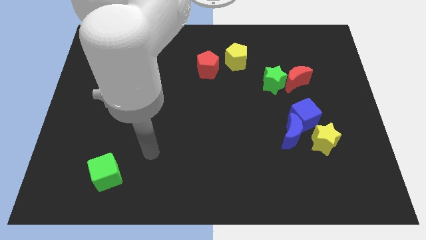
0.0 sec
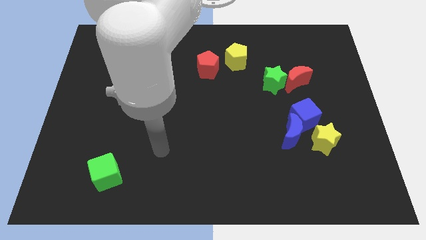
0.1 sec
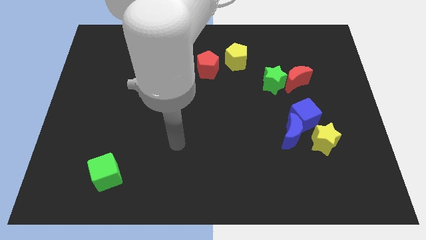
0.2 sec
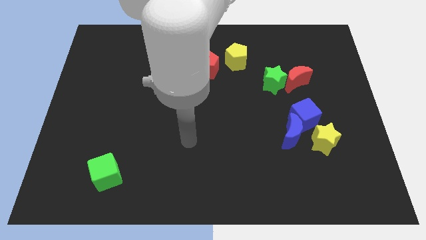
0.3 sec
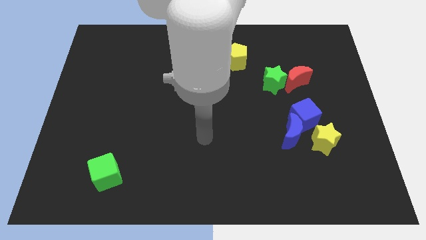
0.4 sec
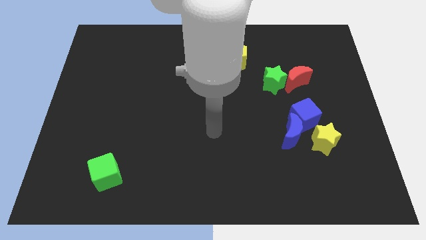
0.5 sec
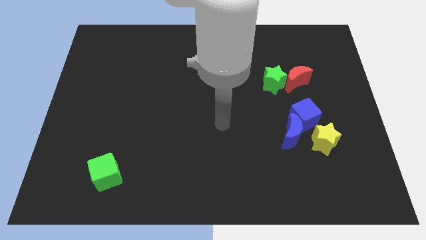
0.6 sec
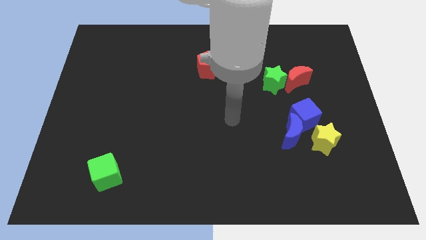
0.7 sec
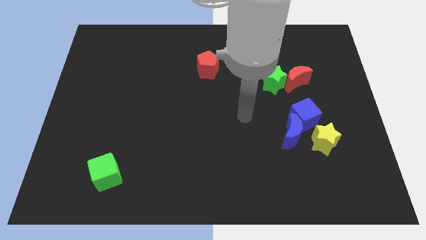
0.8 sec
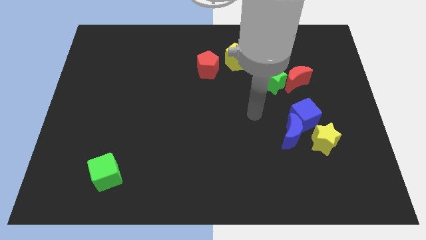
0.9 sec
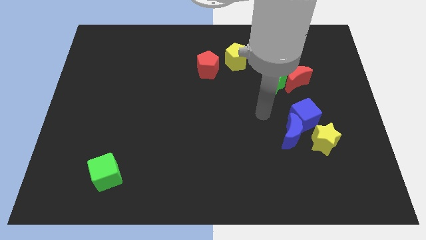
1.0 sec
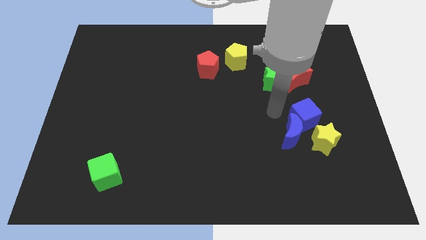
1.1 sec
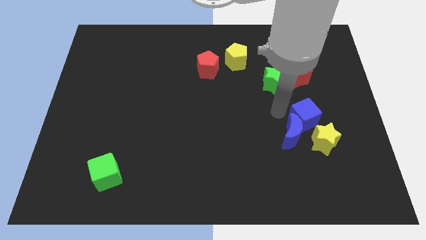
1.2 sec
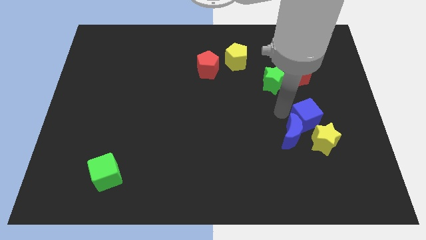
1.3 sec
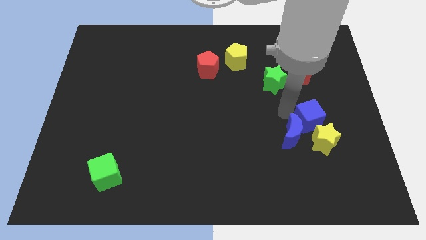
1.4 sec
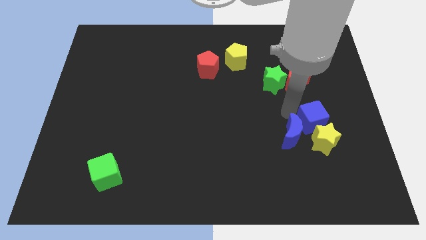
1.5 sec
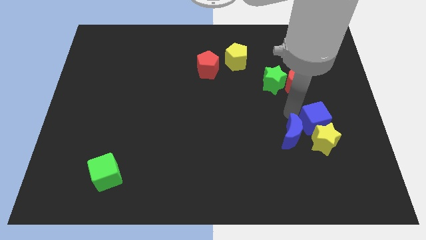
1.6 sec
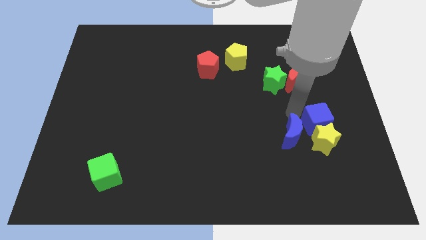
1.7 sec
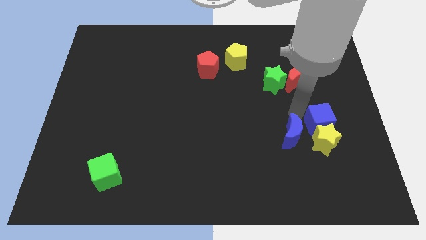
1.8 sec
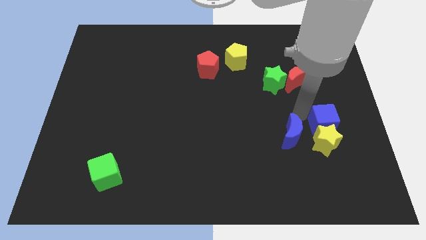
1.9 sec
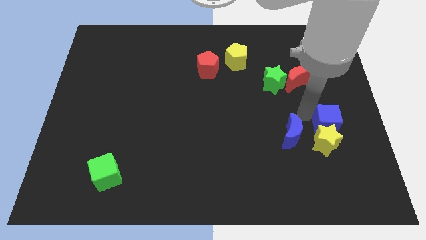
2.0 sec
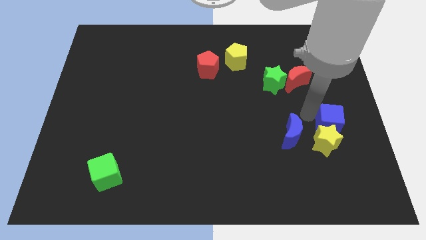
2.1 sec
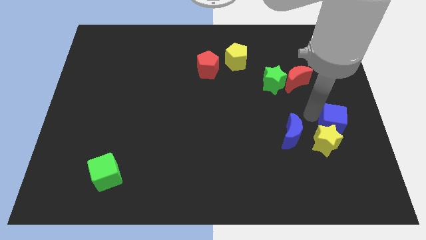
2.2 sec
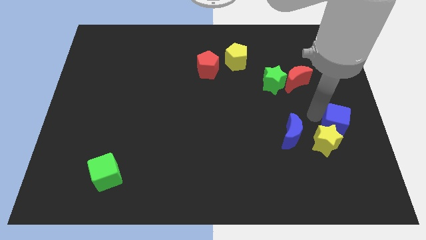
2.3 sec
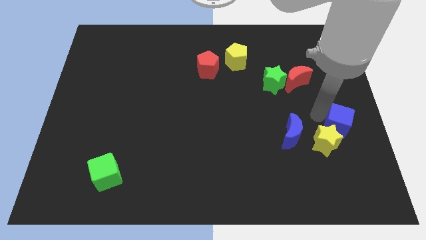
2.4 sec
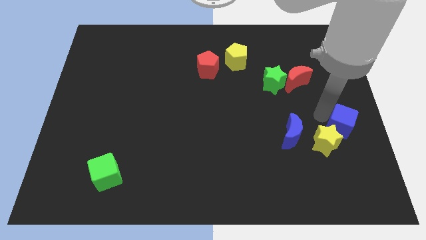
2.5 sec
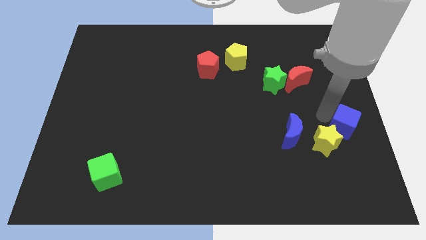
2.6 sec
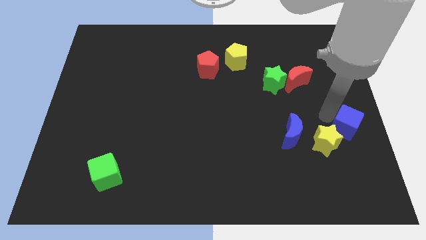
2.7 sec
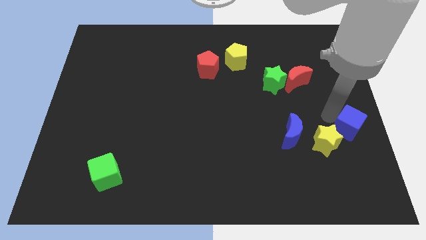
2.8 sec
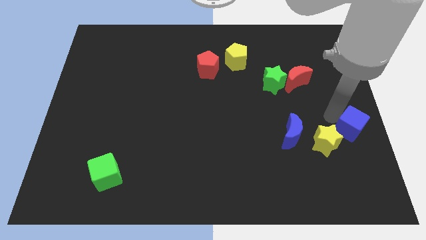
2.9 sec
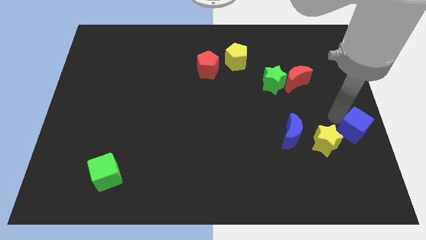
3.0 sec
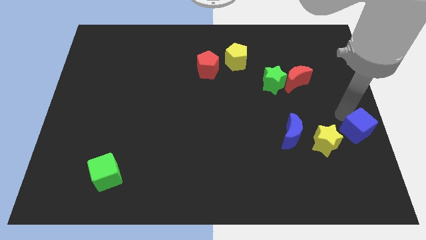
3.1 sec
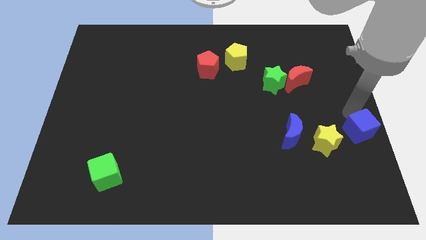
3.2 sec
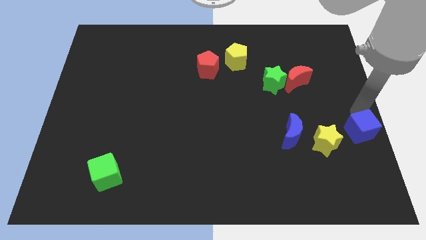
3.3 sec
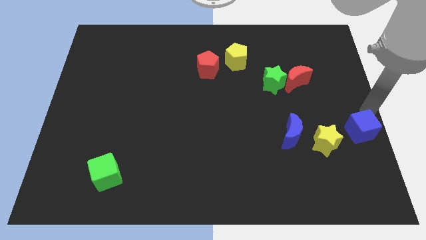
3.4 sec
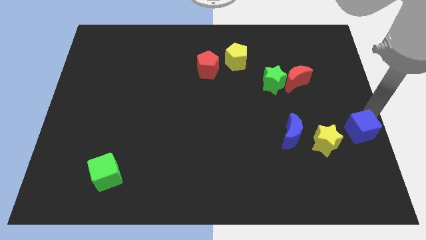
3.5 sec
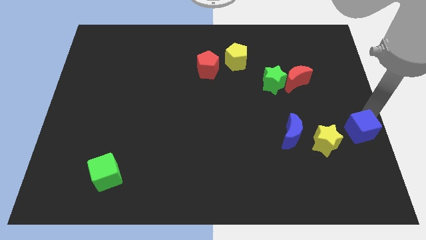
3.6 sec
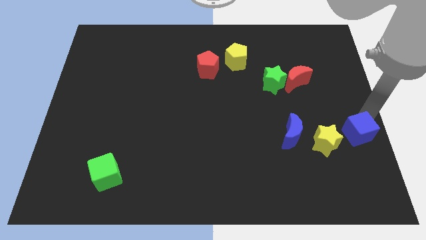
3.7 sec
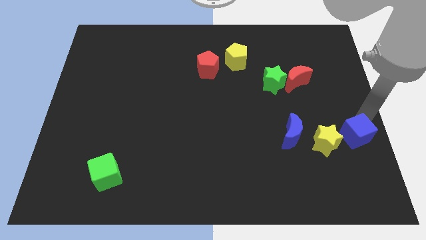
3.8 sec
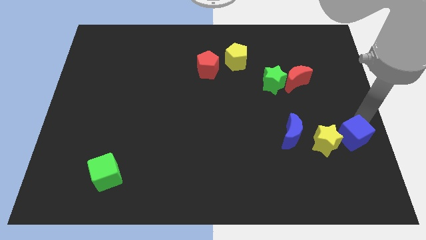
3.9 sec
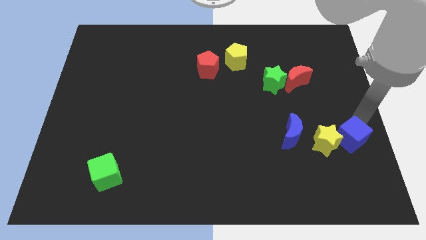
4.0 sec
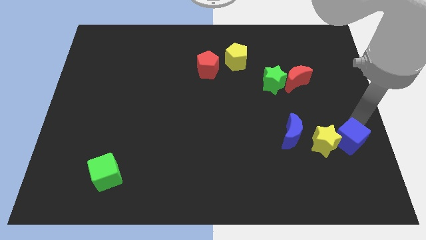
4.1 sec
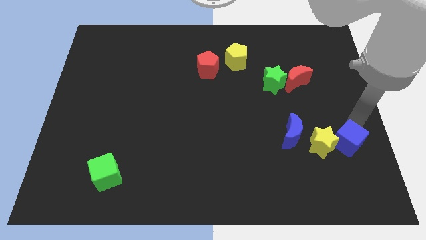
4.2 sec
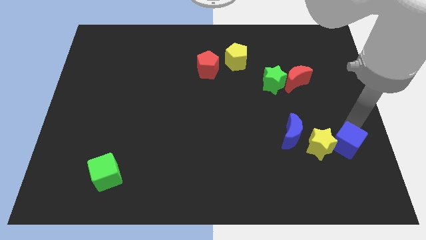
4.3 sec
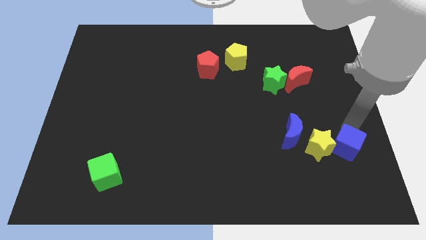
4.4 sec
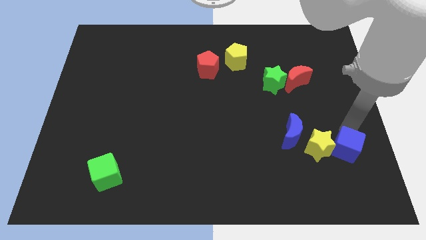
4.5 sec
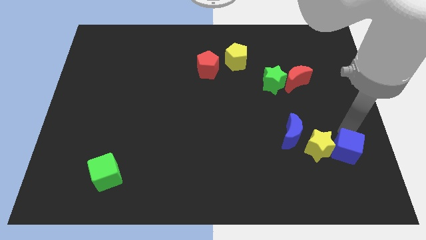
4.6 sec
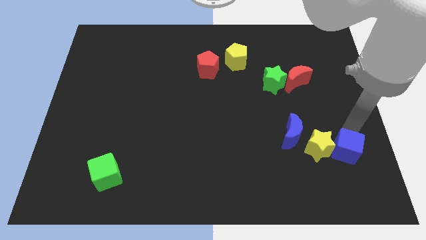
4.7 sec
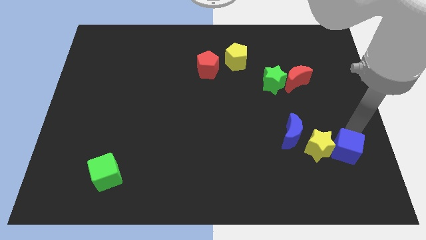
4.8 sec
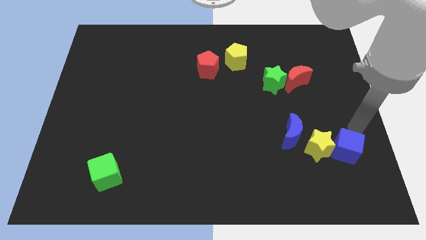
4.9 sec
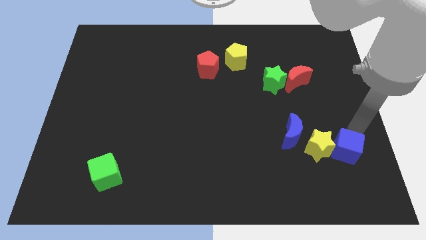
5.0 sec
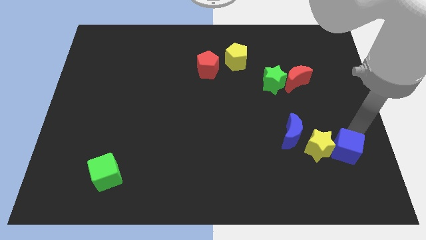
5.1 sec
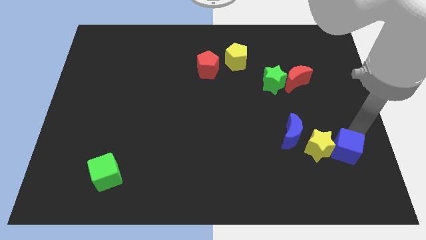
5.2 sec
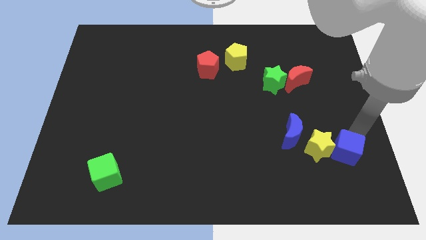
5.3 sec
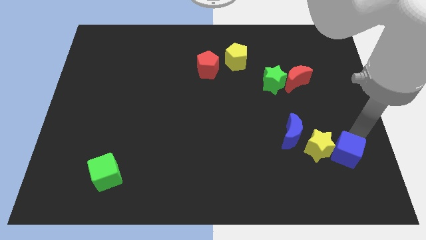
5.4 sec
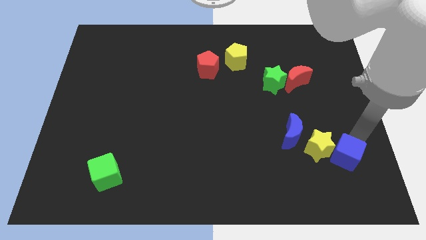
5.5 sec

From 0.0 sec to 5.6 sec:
put the blue cube diagonally down and to the right of the blue moon

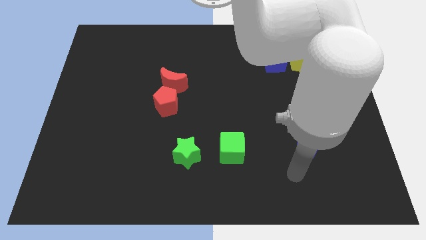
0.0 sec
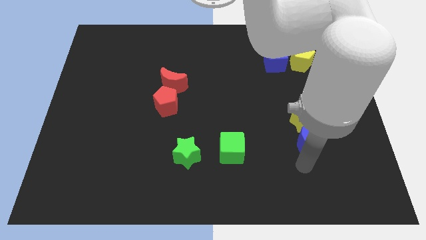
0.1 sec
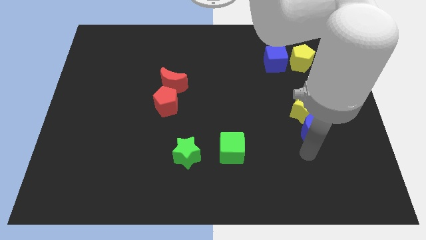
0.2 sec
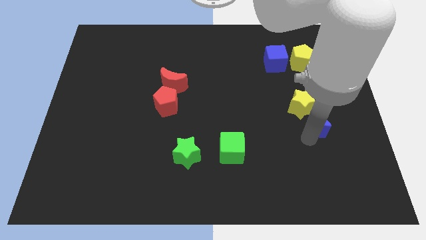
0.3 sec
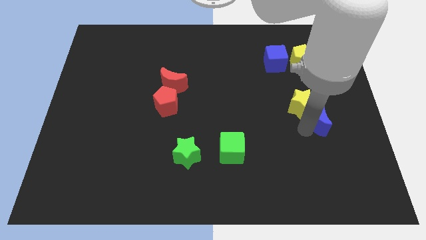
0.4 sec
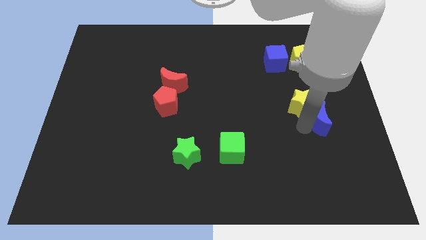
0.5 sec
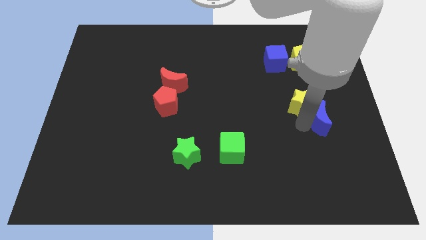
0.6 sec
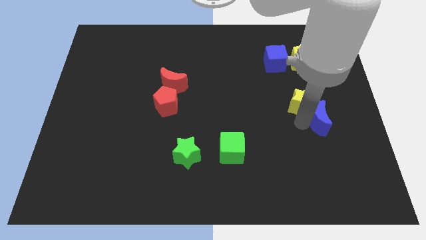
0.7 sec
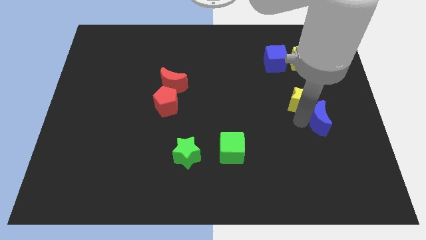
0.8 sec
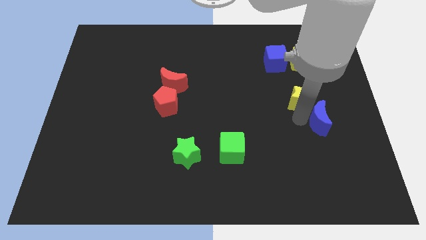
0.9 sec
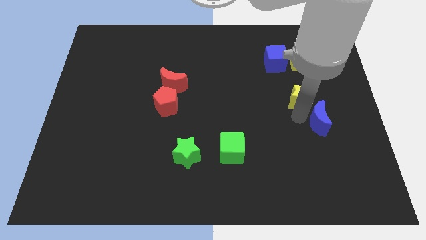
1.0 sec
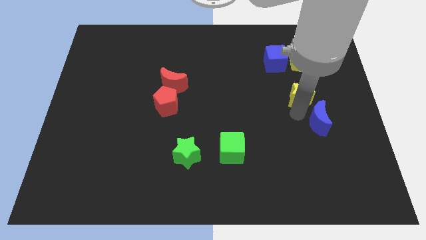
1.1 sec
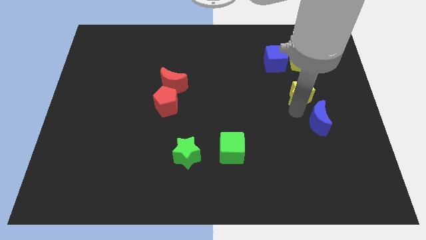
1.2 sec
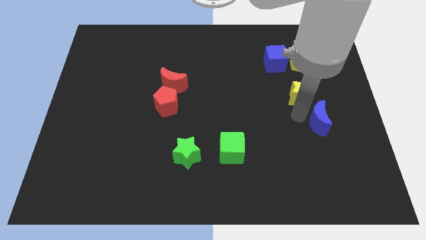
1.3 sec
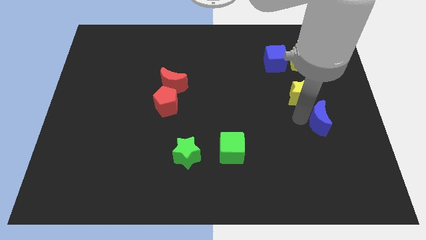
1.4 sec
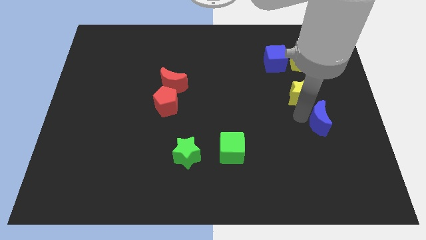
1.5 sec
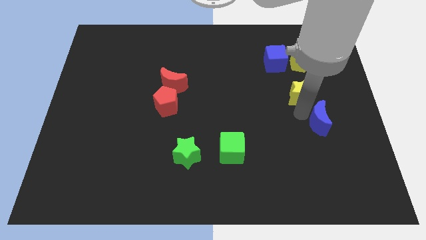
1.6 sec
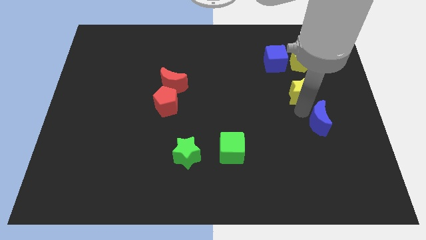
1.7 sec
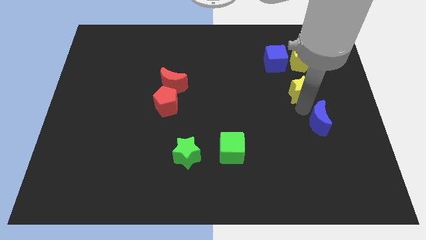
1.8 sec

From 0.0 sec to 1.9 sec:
slide the yellow star to the bottom right side of the blue cube

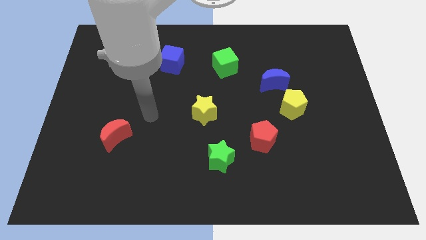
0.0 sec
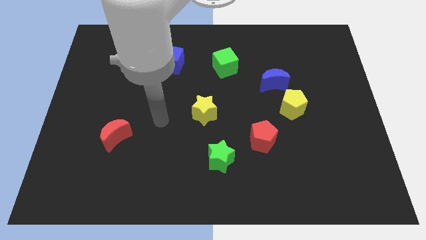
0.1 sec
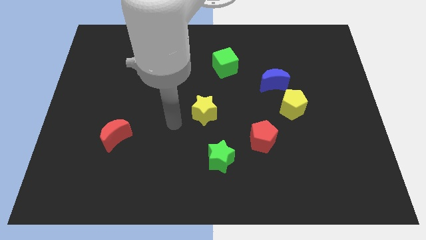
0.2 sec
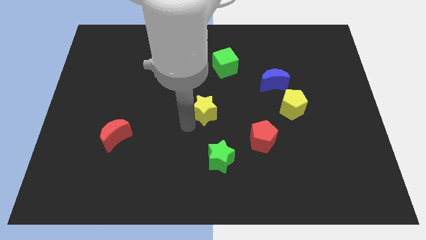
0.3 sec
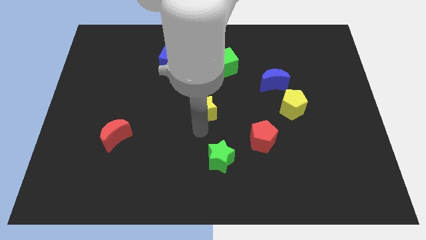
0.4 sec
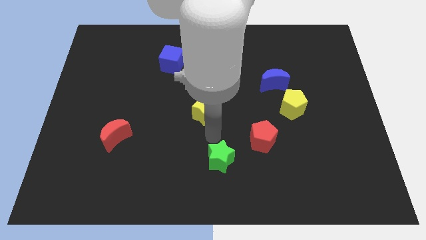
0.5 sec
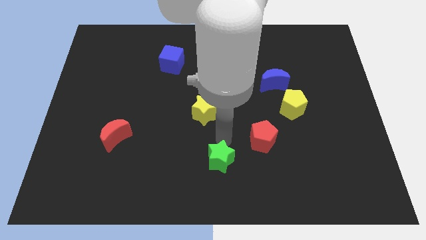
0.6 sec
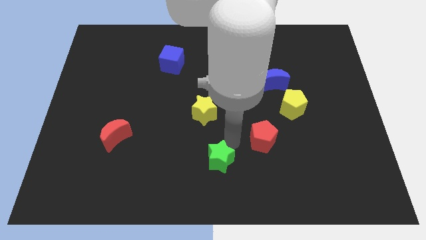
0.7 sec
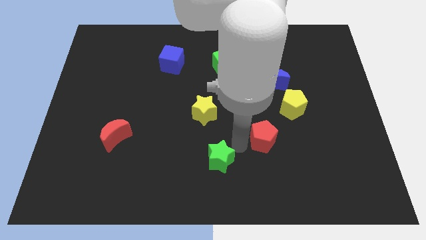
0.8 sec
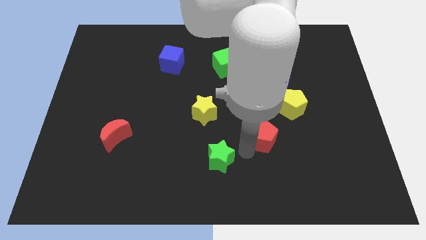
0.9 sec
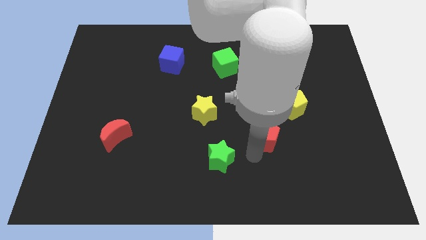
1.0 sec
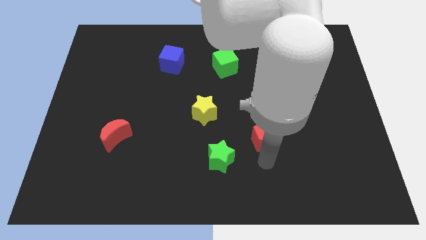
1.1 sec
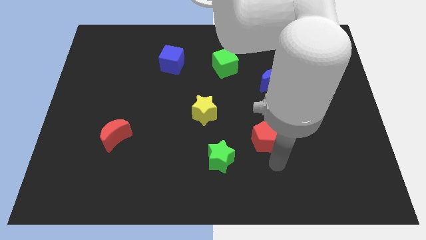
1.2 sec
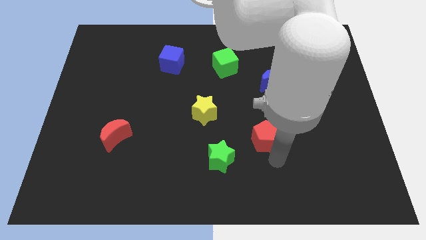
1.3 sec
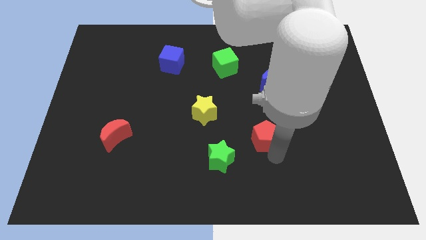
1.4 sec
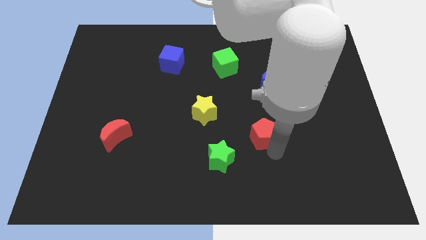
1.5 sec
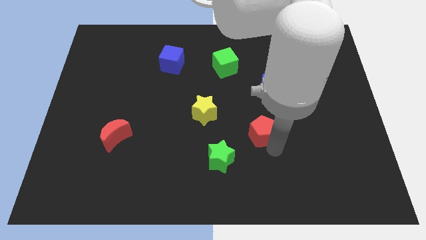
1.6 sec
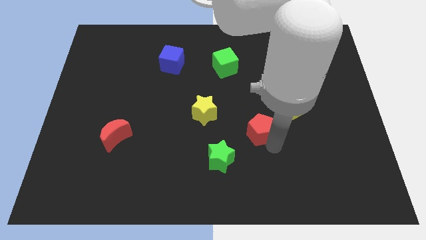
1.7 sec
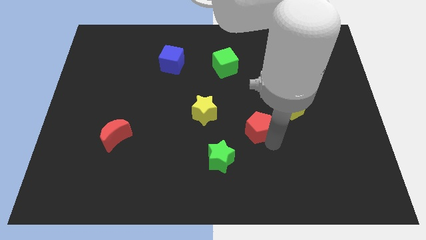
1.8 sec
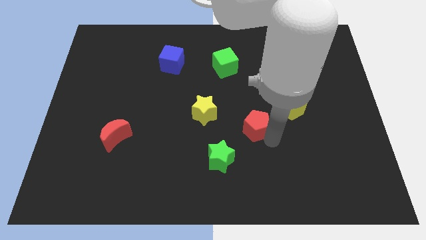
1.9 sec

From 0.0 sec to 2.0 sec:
push the red pentagon to the right side of the yellow star
